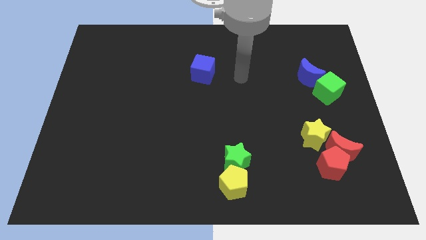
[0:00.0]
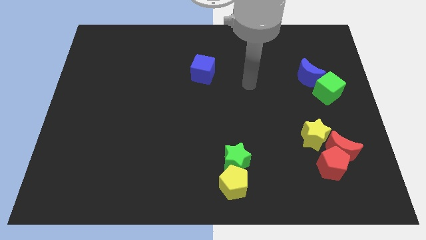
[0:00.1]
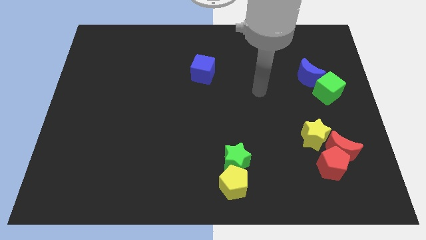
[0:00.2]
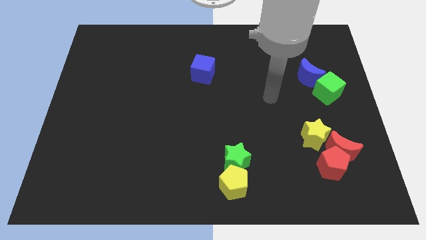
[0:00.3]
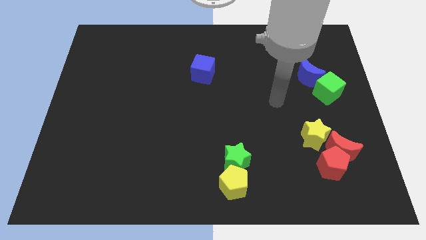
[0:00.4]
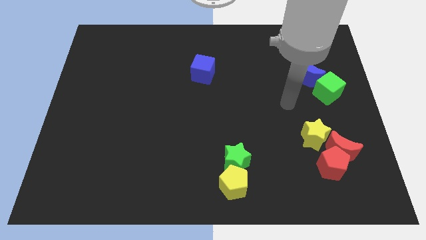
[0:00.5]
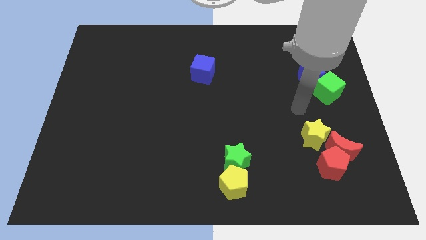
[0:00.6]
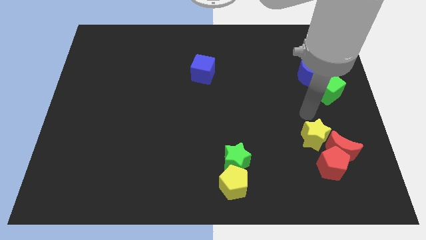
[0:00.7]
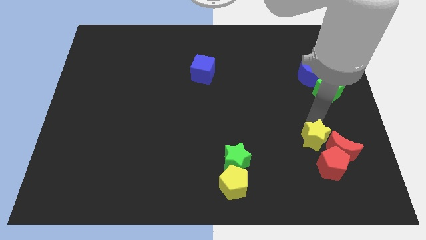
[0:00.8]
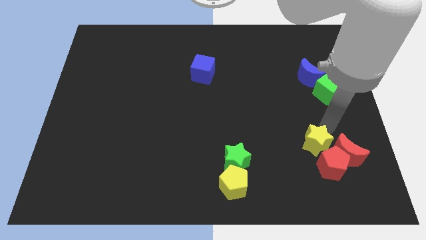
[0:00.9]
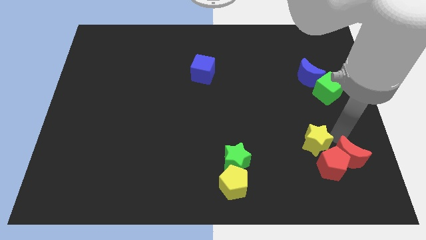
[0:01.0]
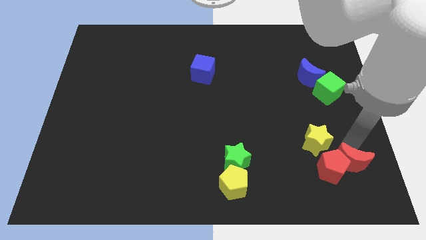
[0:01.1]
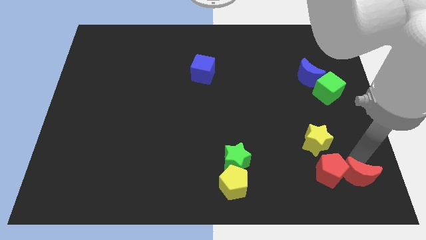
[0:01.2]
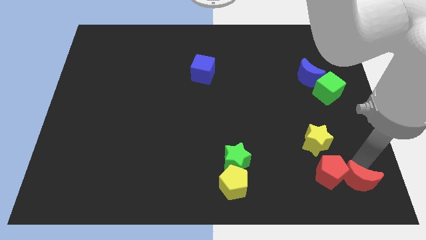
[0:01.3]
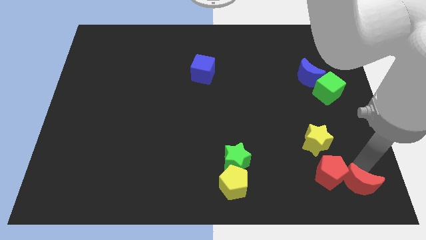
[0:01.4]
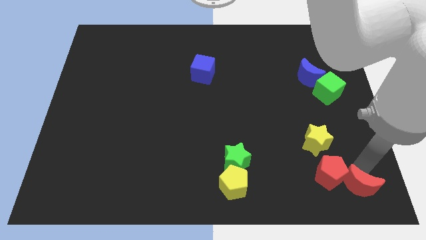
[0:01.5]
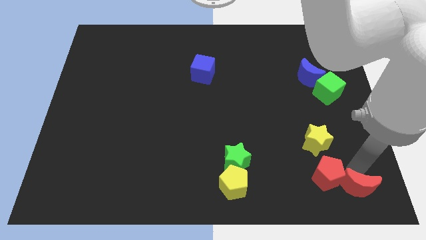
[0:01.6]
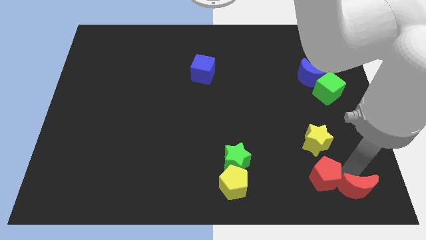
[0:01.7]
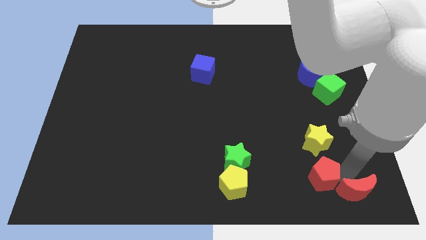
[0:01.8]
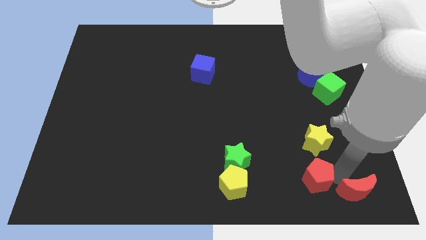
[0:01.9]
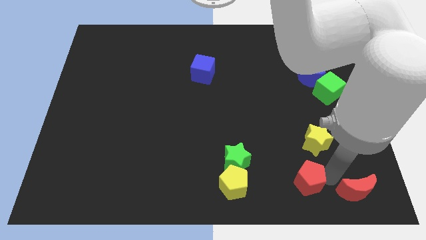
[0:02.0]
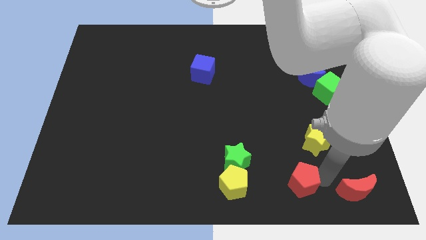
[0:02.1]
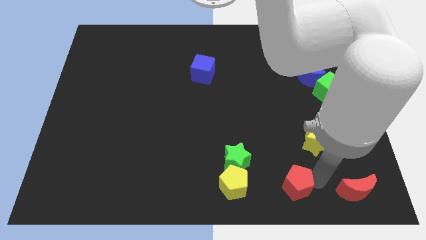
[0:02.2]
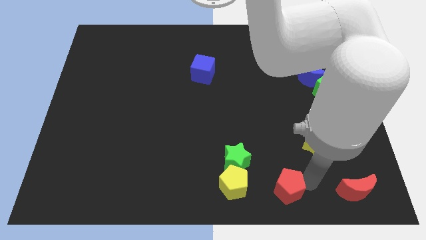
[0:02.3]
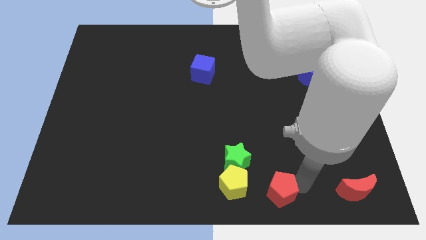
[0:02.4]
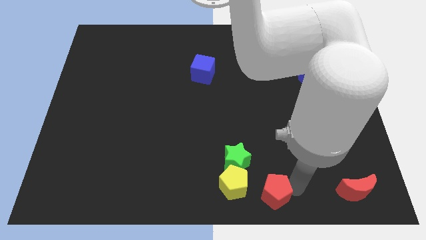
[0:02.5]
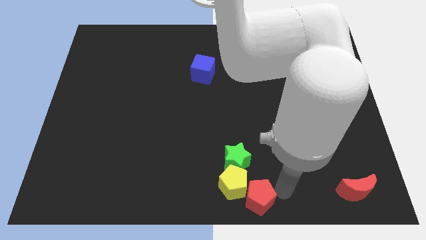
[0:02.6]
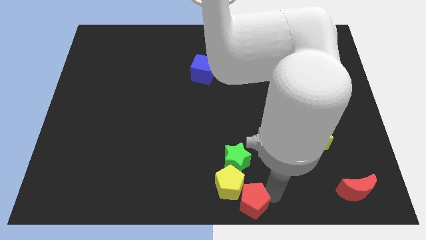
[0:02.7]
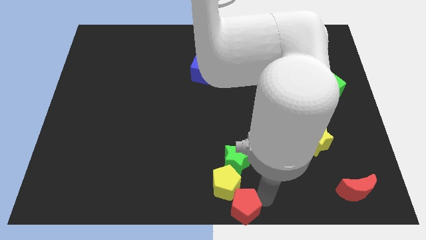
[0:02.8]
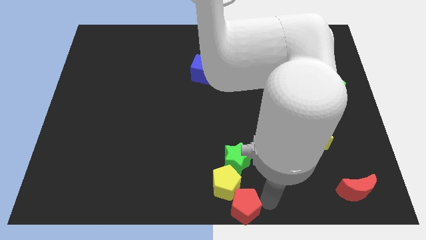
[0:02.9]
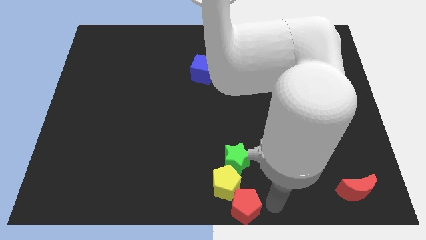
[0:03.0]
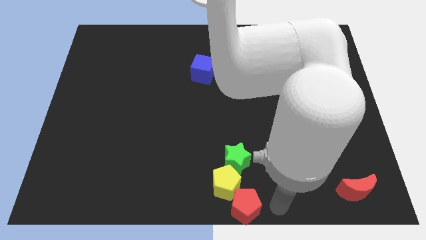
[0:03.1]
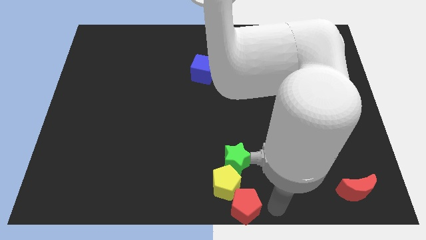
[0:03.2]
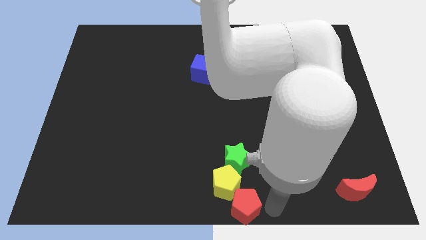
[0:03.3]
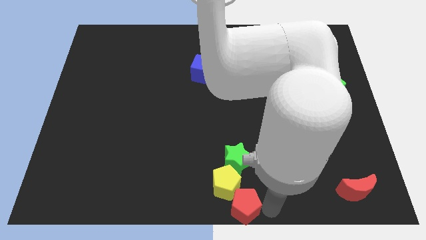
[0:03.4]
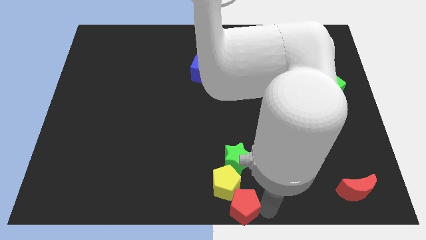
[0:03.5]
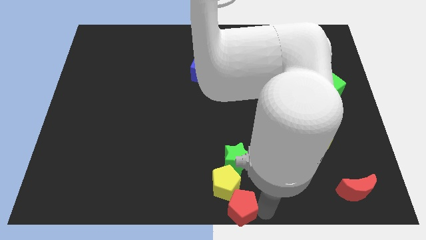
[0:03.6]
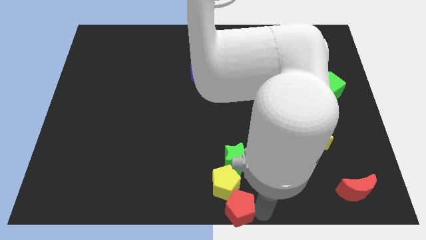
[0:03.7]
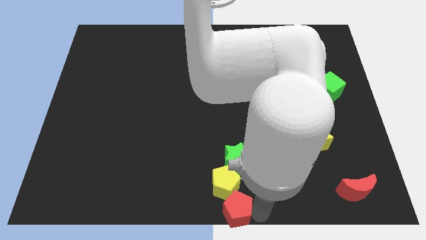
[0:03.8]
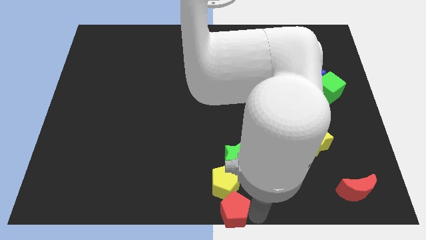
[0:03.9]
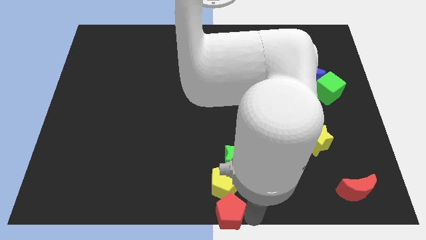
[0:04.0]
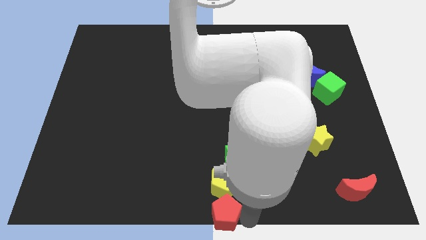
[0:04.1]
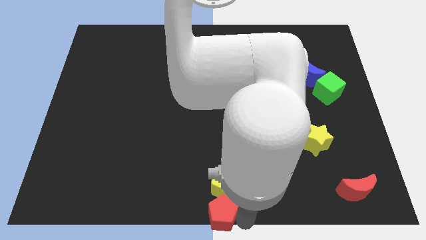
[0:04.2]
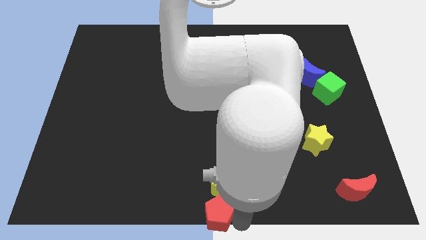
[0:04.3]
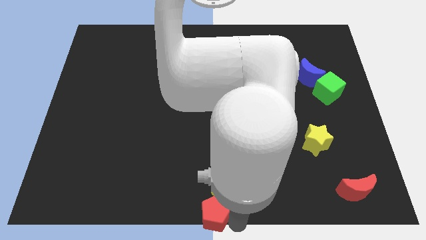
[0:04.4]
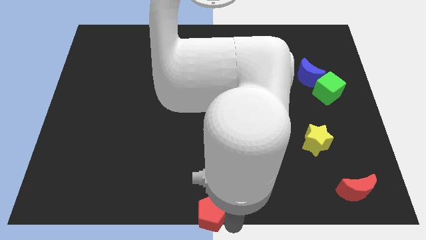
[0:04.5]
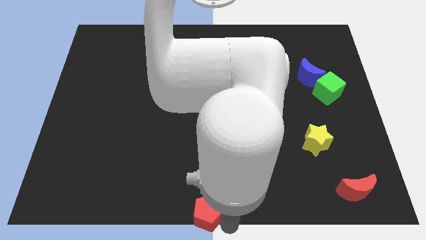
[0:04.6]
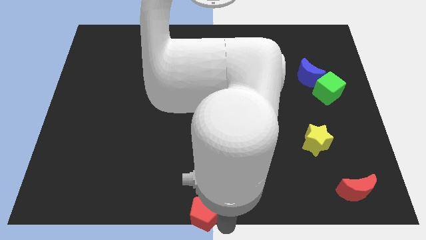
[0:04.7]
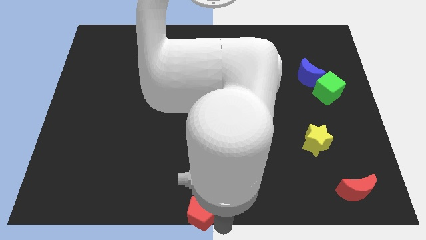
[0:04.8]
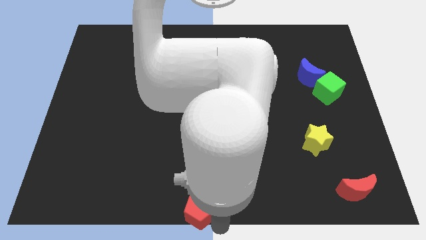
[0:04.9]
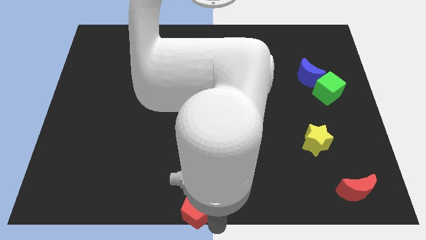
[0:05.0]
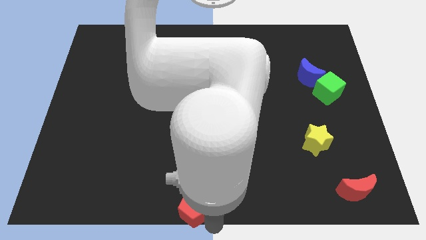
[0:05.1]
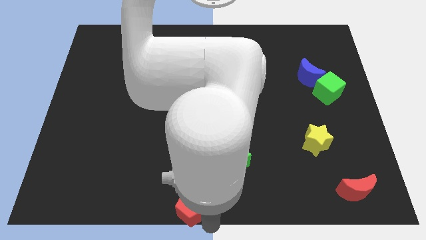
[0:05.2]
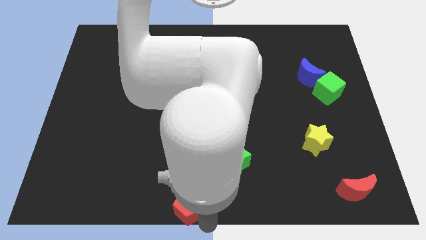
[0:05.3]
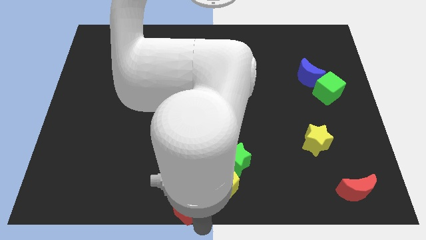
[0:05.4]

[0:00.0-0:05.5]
push the red pentagon left of the yellow pentagon

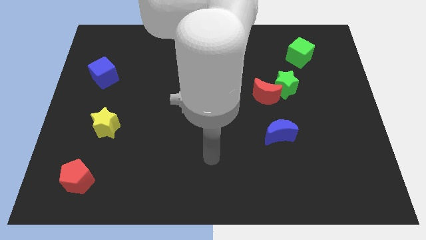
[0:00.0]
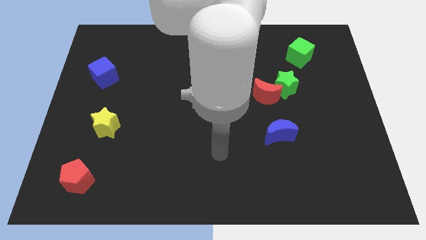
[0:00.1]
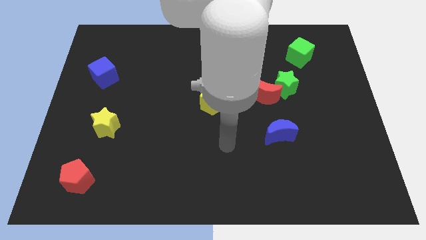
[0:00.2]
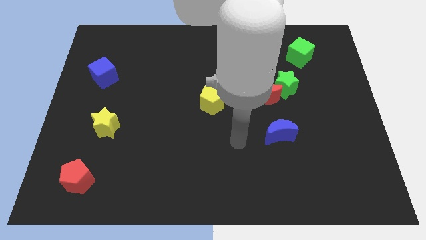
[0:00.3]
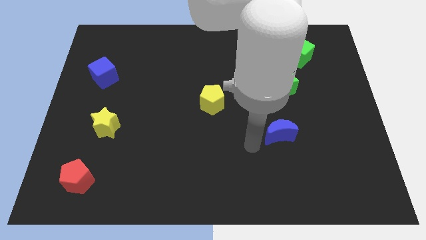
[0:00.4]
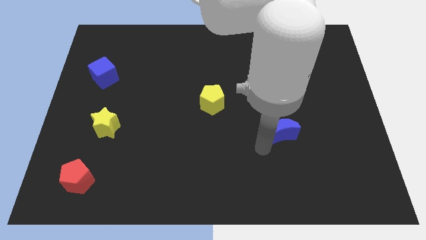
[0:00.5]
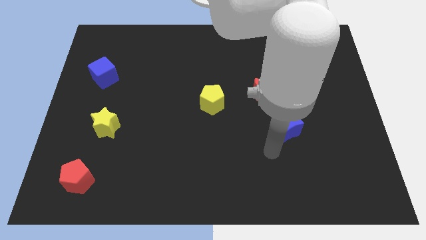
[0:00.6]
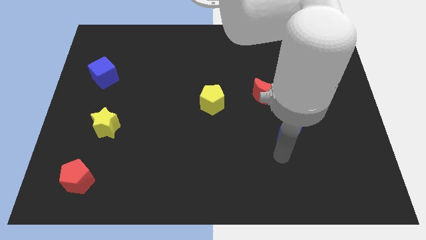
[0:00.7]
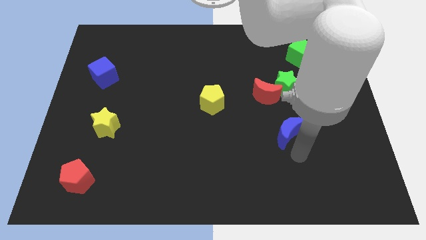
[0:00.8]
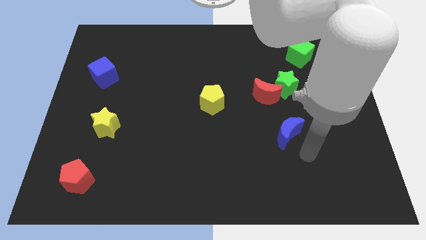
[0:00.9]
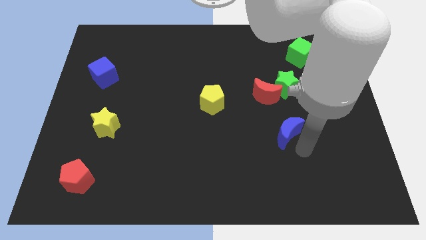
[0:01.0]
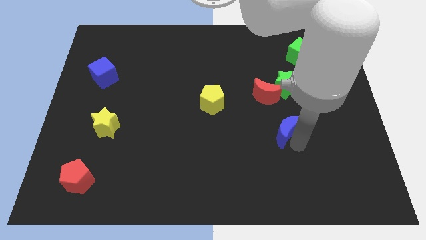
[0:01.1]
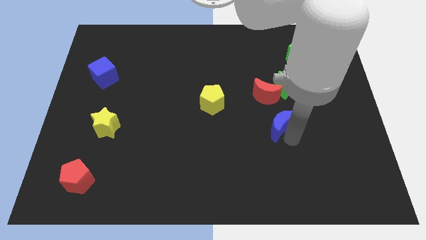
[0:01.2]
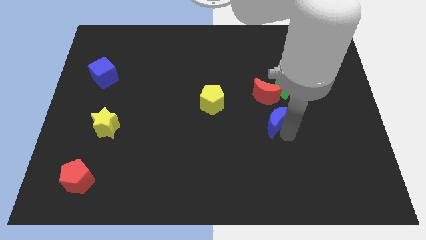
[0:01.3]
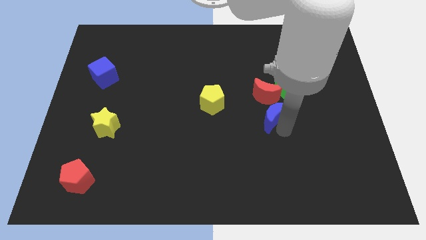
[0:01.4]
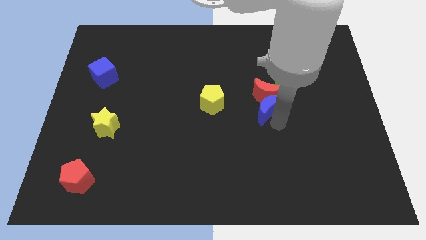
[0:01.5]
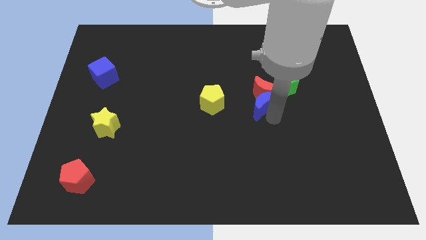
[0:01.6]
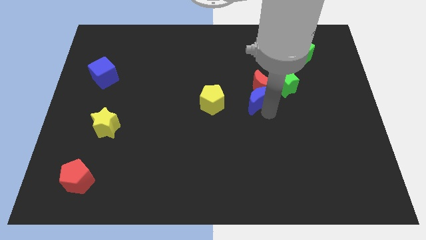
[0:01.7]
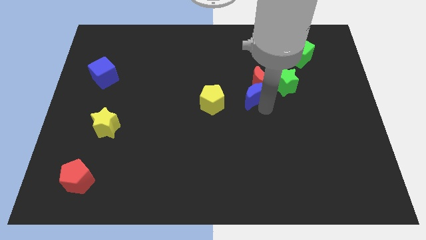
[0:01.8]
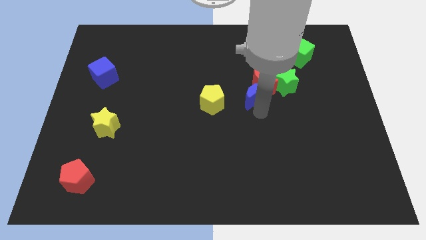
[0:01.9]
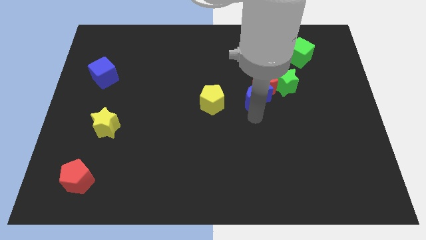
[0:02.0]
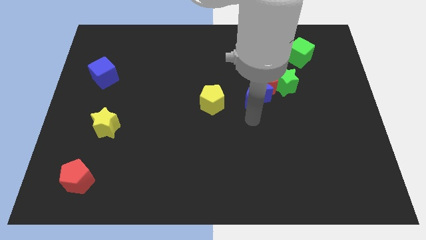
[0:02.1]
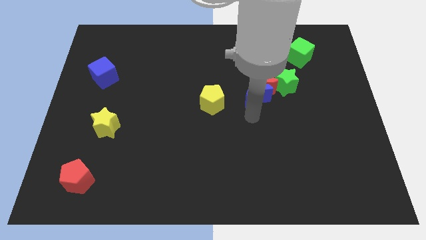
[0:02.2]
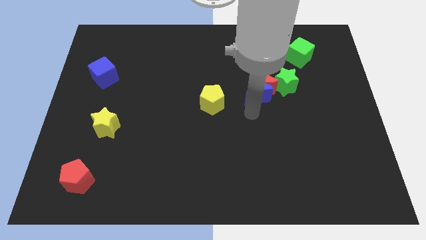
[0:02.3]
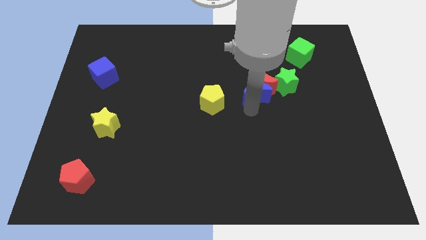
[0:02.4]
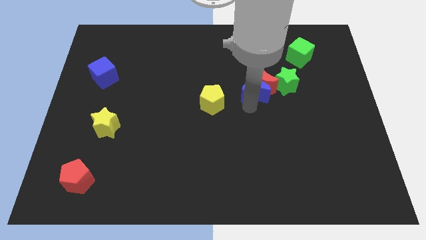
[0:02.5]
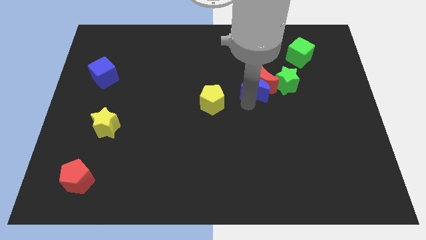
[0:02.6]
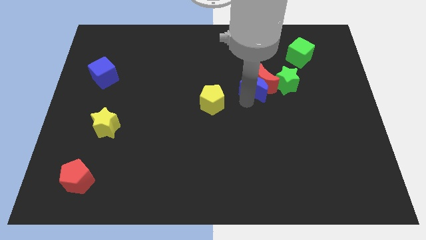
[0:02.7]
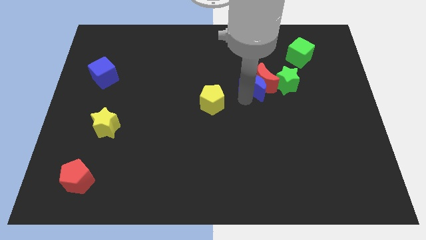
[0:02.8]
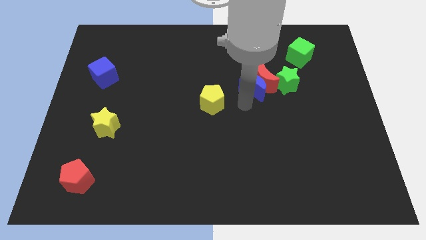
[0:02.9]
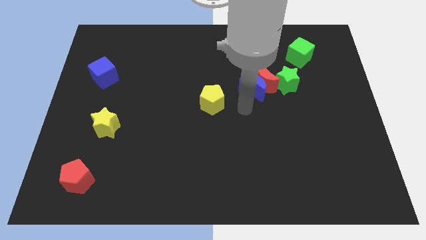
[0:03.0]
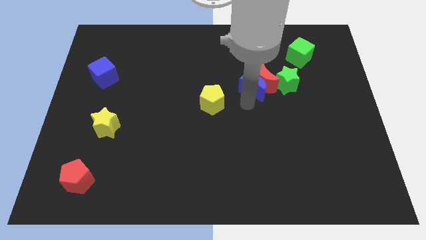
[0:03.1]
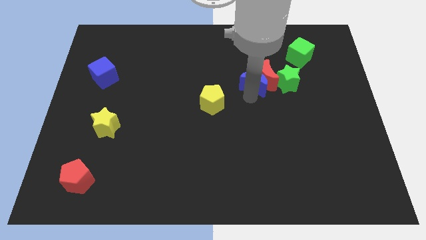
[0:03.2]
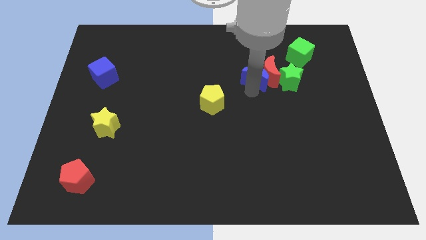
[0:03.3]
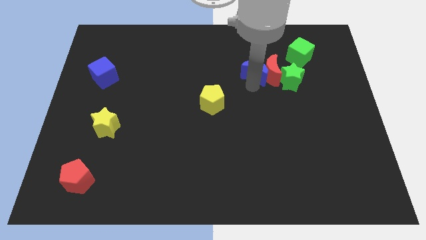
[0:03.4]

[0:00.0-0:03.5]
move the blue moon to the top left of the green star
